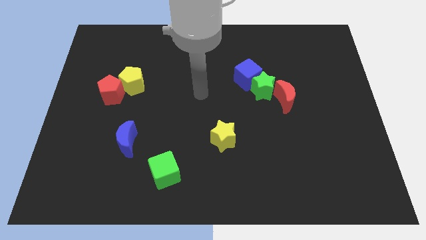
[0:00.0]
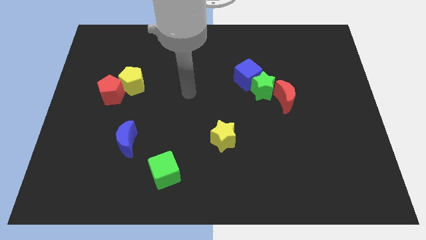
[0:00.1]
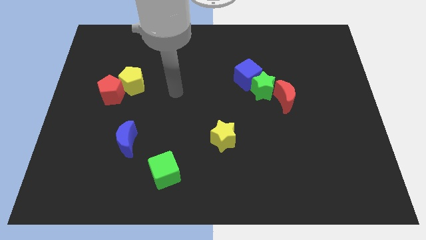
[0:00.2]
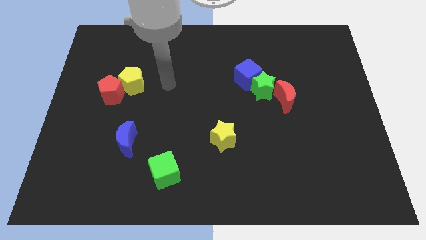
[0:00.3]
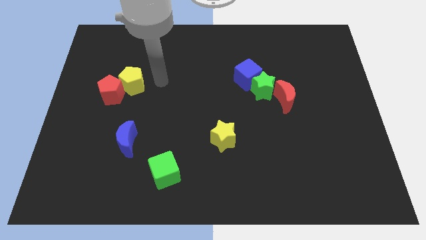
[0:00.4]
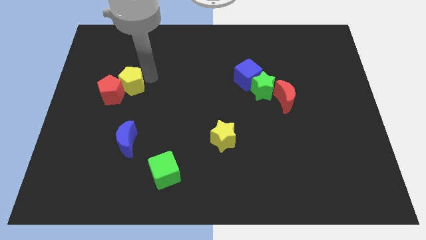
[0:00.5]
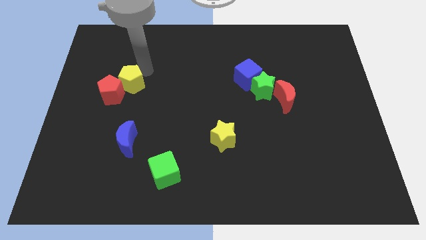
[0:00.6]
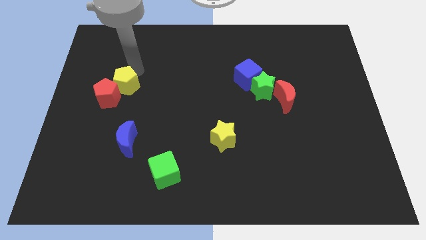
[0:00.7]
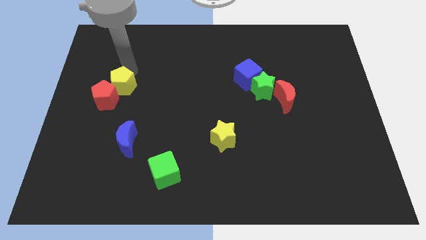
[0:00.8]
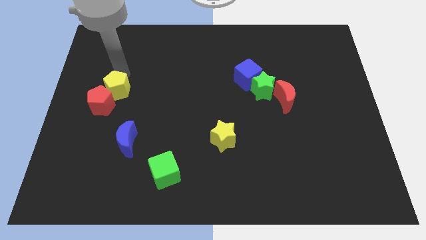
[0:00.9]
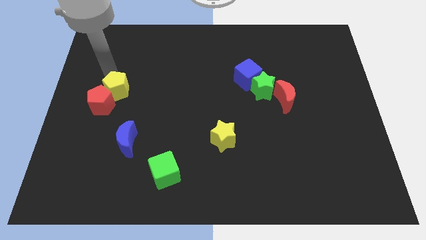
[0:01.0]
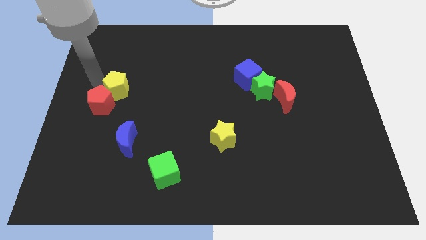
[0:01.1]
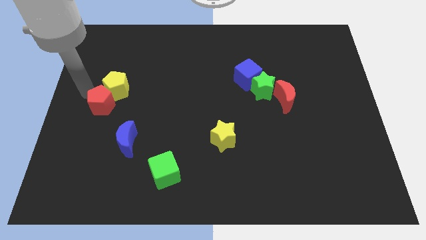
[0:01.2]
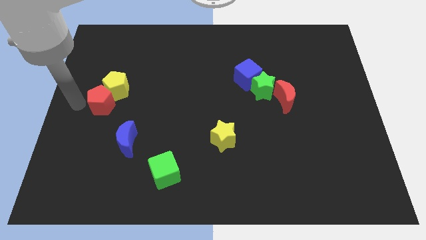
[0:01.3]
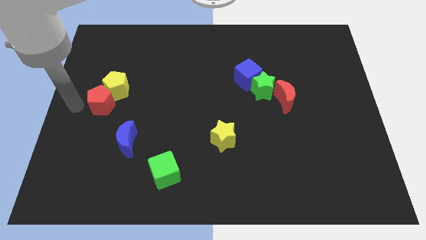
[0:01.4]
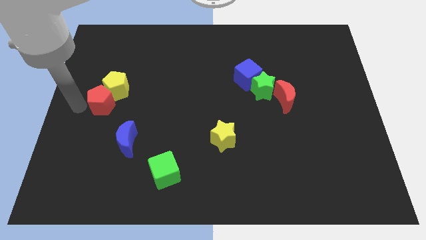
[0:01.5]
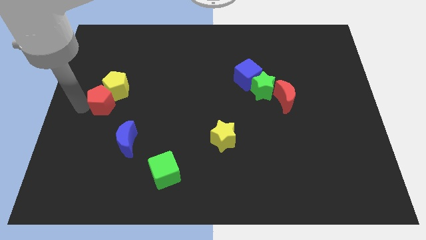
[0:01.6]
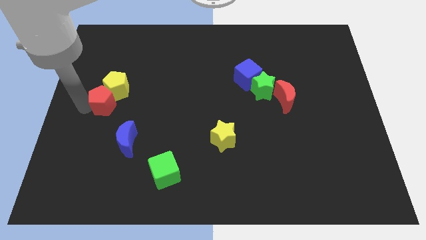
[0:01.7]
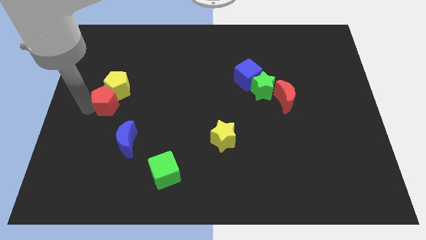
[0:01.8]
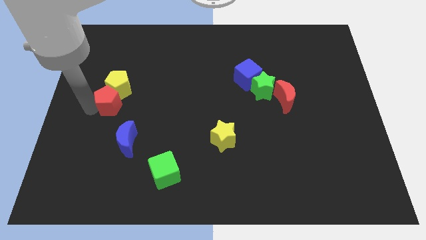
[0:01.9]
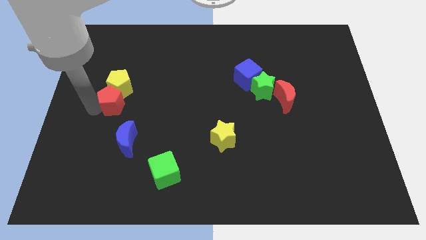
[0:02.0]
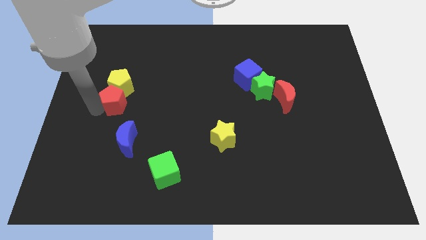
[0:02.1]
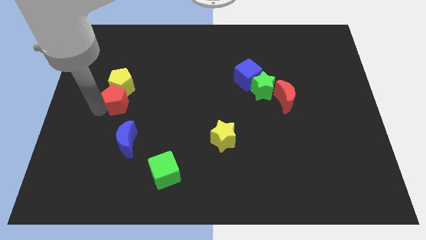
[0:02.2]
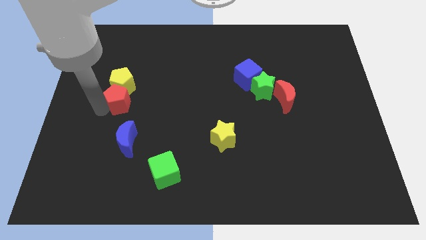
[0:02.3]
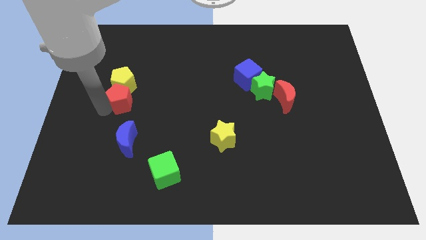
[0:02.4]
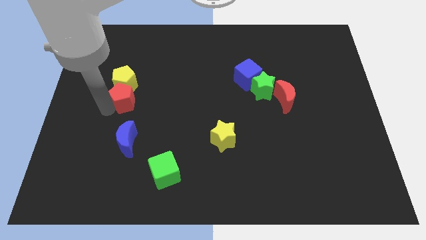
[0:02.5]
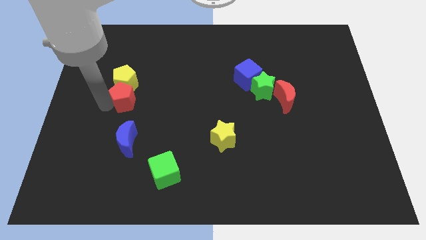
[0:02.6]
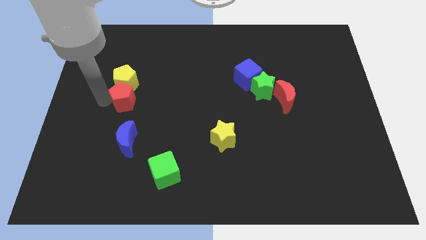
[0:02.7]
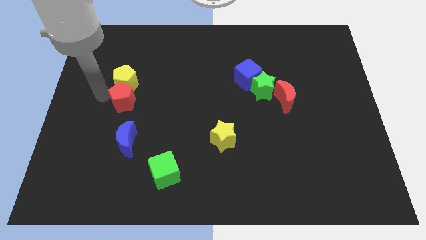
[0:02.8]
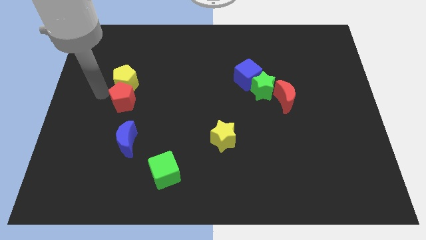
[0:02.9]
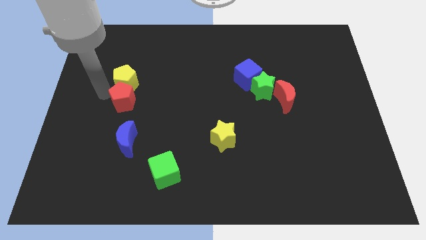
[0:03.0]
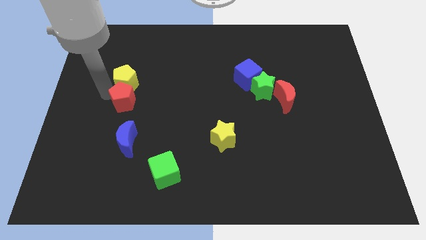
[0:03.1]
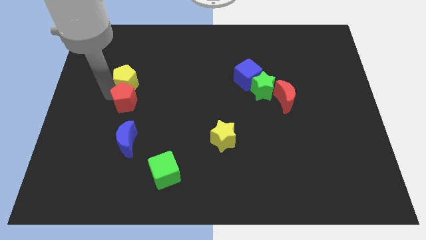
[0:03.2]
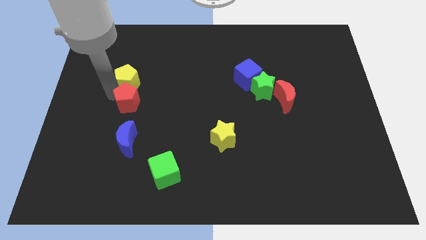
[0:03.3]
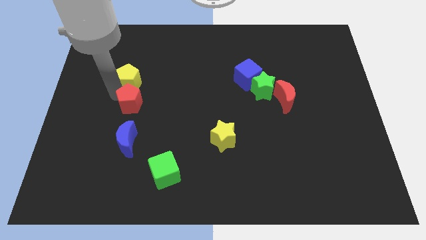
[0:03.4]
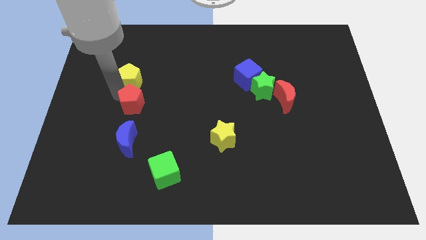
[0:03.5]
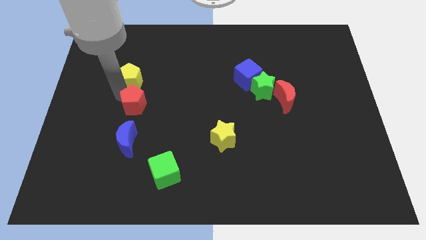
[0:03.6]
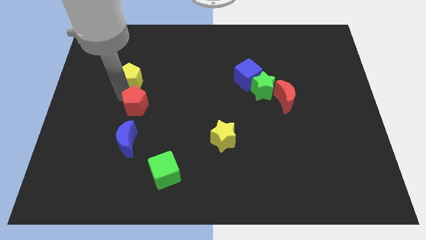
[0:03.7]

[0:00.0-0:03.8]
slightly move the red pentagon downwards and then right

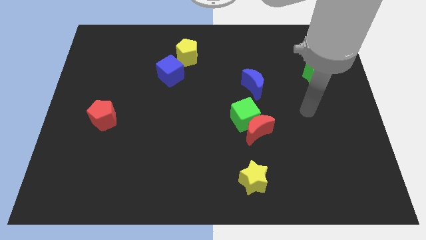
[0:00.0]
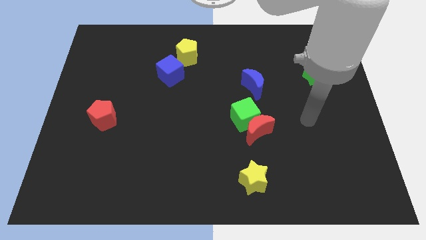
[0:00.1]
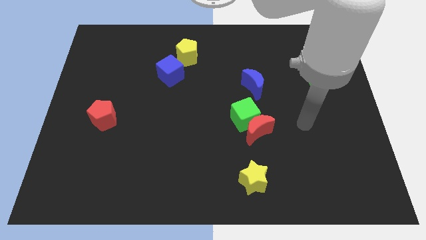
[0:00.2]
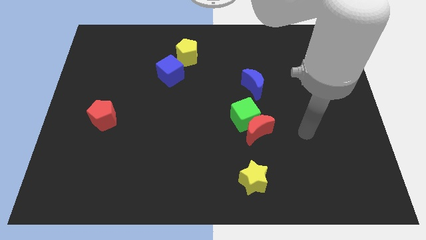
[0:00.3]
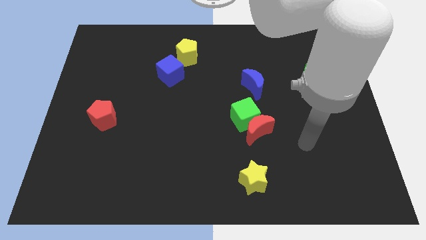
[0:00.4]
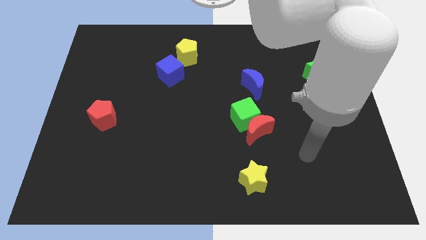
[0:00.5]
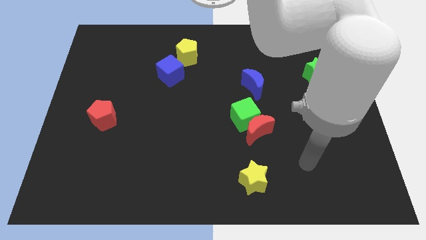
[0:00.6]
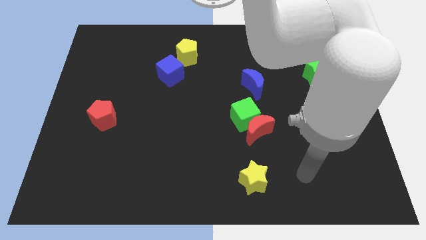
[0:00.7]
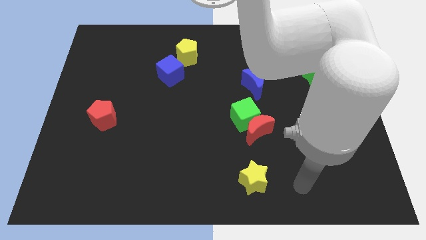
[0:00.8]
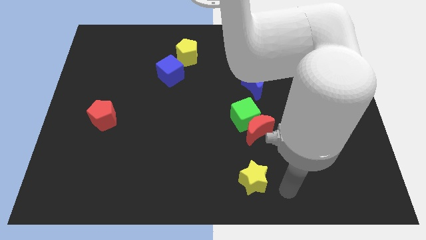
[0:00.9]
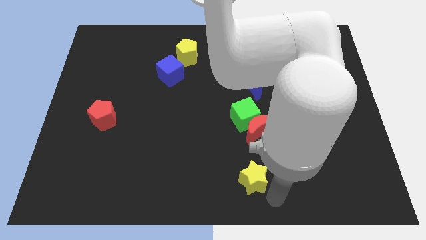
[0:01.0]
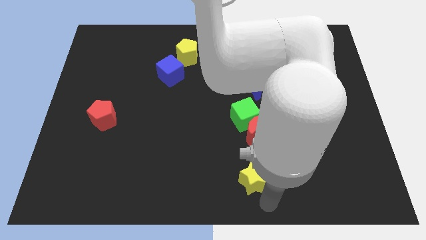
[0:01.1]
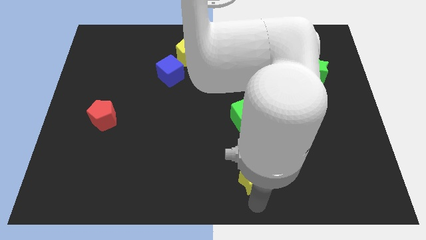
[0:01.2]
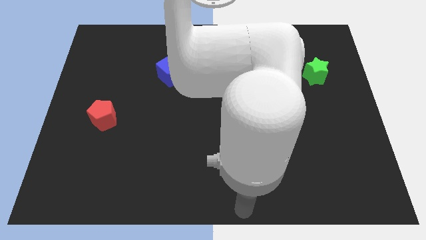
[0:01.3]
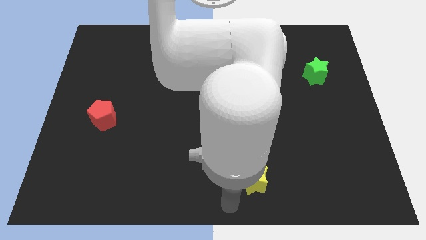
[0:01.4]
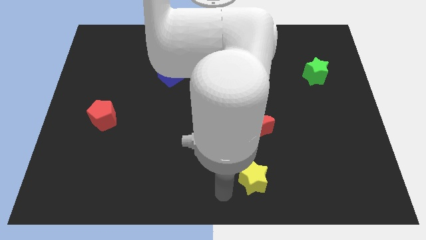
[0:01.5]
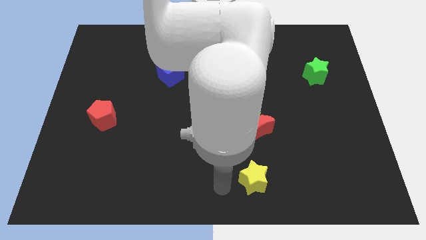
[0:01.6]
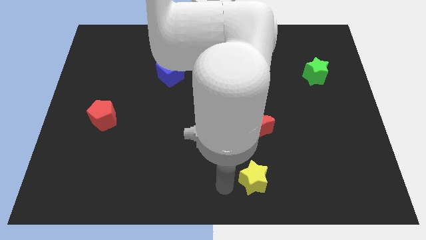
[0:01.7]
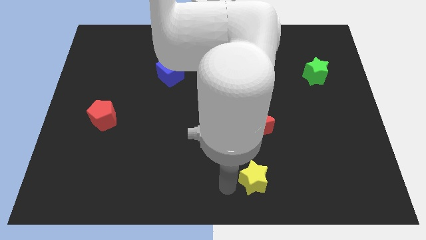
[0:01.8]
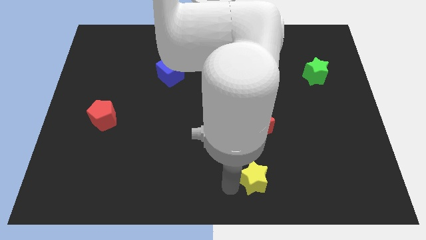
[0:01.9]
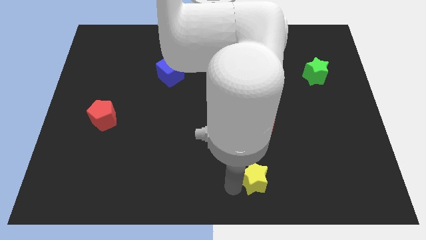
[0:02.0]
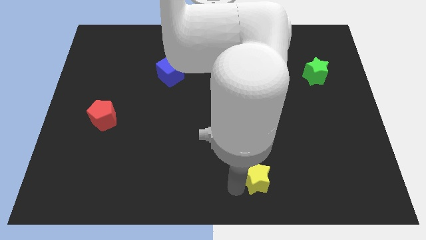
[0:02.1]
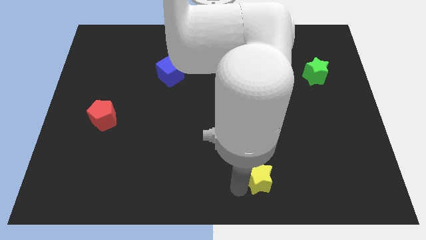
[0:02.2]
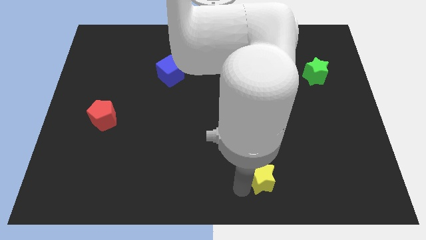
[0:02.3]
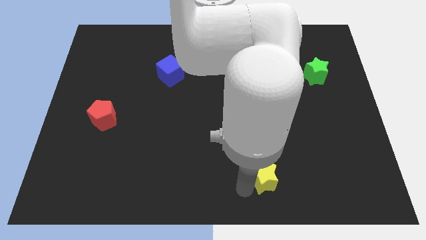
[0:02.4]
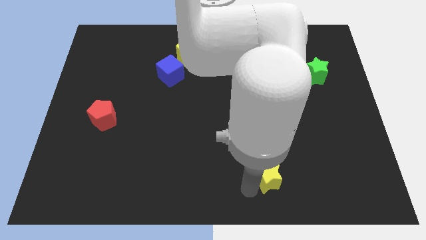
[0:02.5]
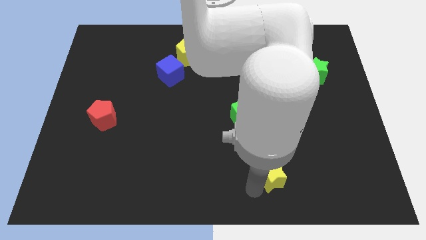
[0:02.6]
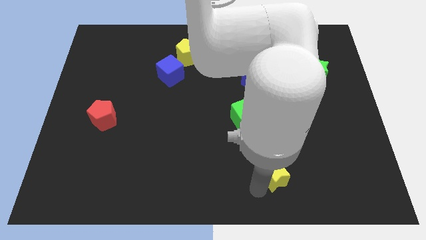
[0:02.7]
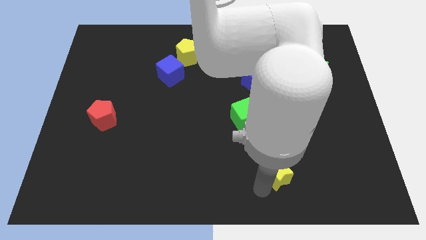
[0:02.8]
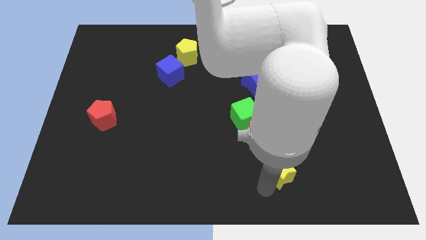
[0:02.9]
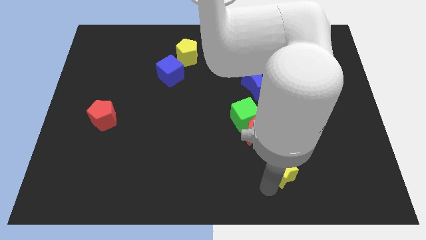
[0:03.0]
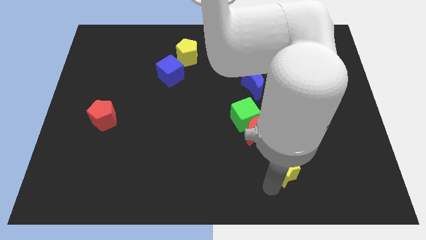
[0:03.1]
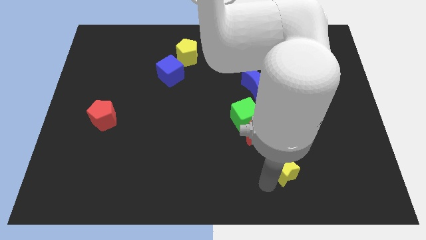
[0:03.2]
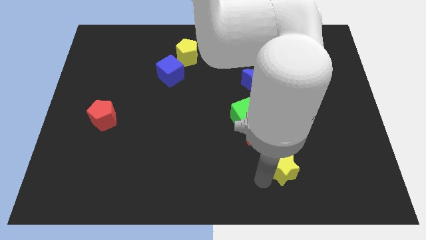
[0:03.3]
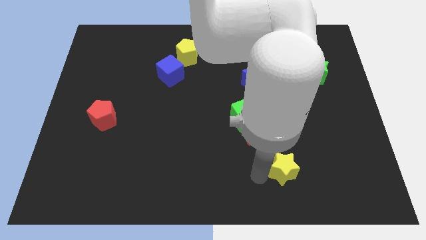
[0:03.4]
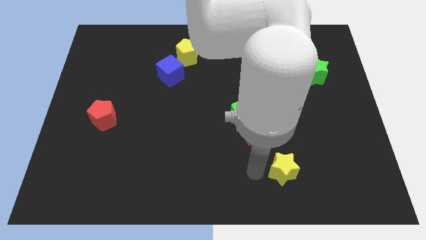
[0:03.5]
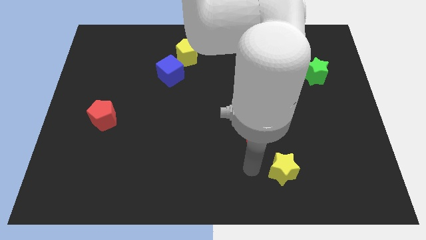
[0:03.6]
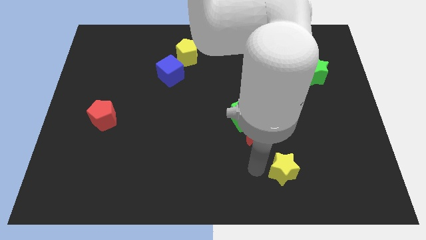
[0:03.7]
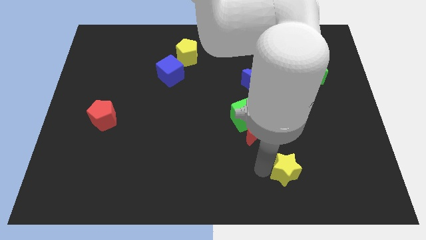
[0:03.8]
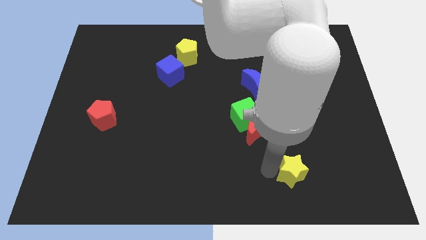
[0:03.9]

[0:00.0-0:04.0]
slide the yellow star right a bit
